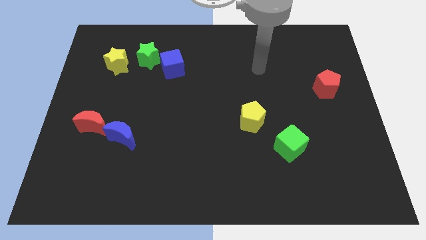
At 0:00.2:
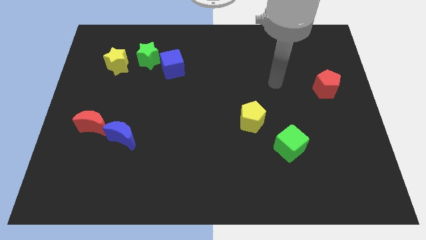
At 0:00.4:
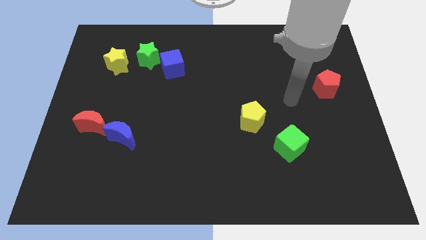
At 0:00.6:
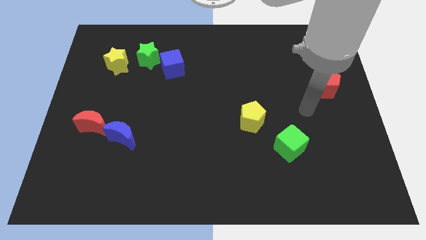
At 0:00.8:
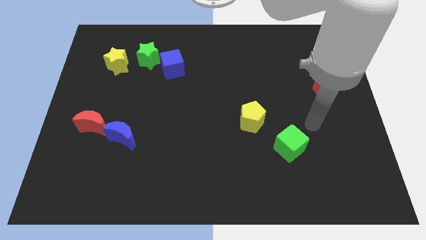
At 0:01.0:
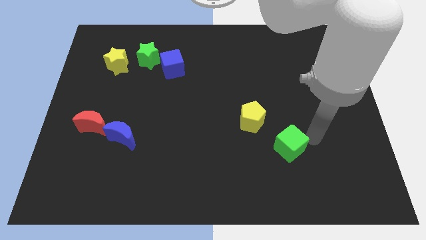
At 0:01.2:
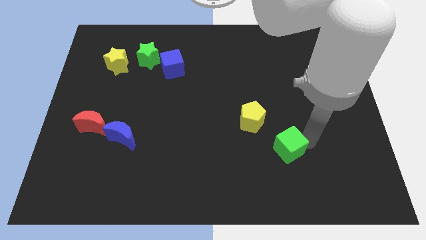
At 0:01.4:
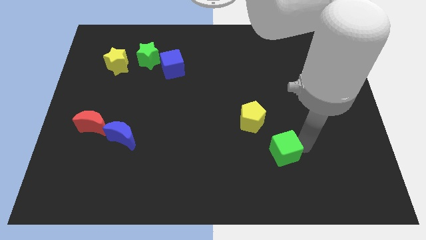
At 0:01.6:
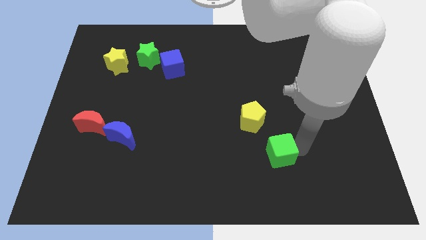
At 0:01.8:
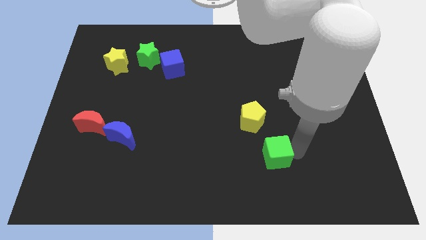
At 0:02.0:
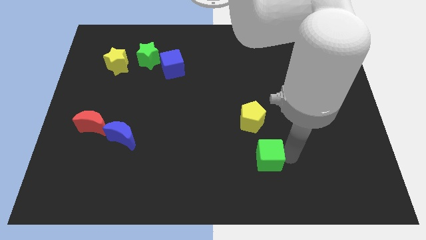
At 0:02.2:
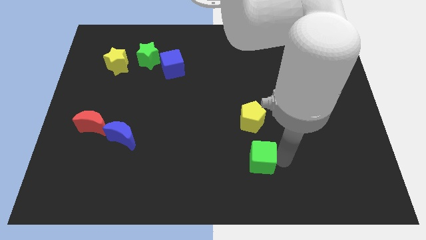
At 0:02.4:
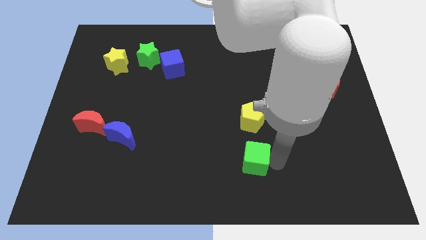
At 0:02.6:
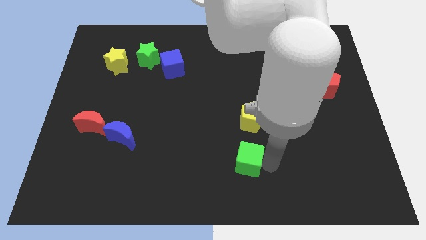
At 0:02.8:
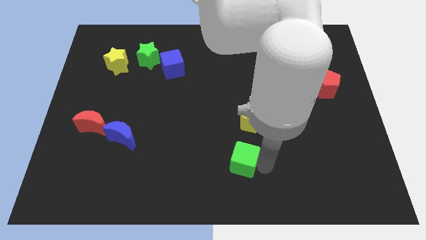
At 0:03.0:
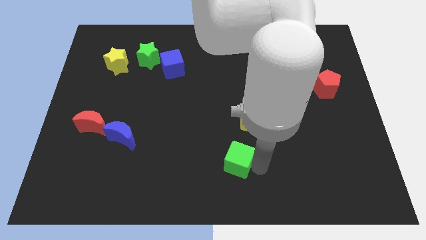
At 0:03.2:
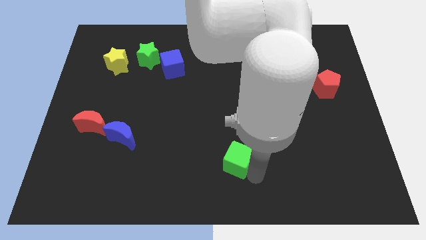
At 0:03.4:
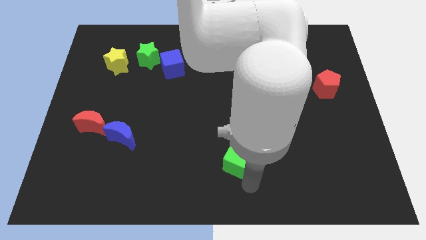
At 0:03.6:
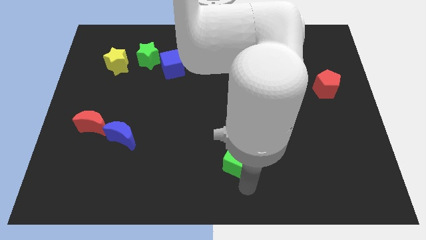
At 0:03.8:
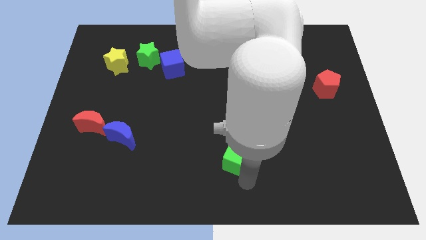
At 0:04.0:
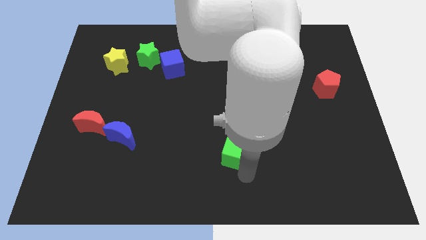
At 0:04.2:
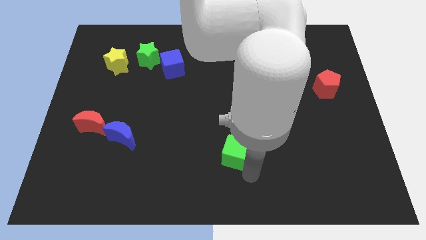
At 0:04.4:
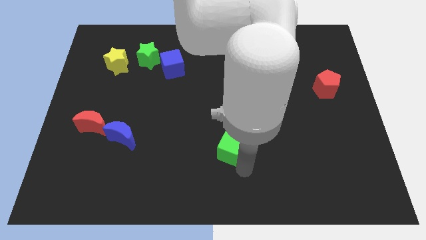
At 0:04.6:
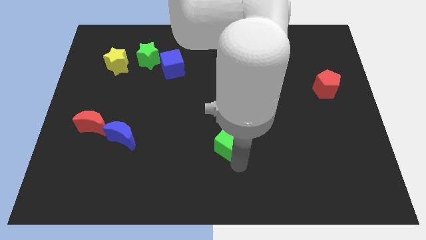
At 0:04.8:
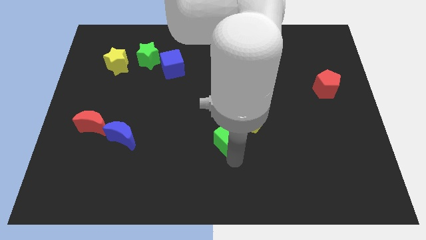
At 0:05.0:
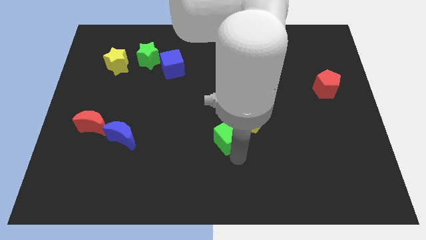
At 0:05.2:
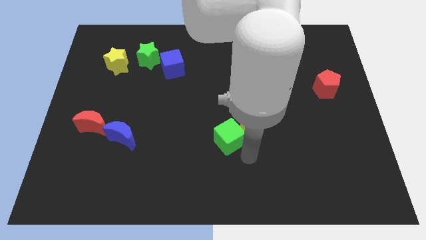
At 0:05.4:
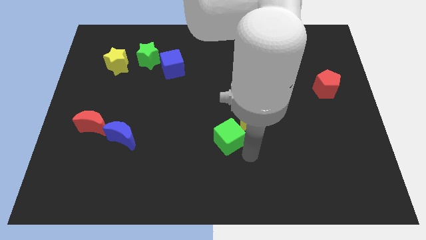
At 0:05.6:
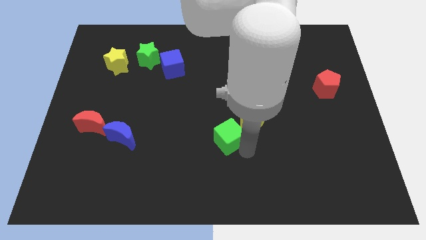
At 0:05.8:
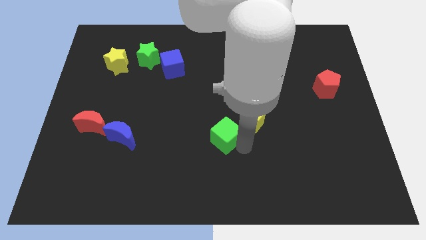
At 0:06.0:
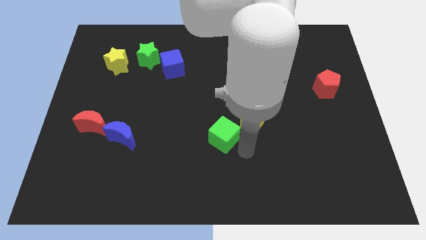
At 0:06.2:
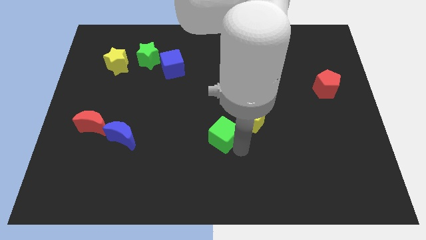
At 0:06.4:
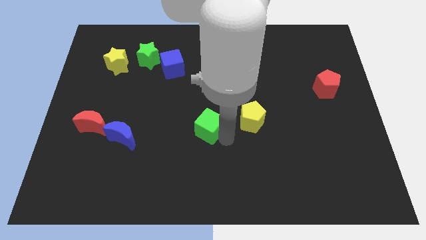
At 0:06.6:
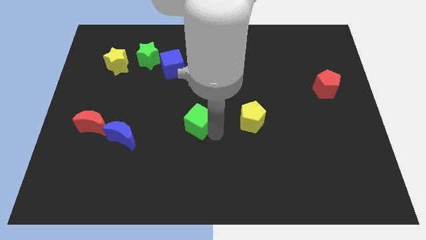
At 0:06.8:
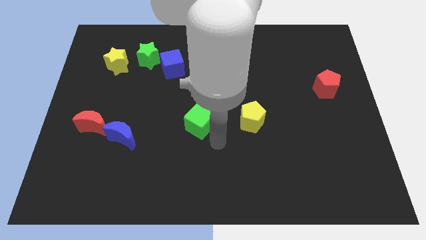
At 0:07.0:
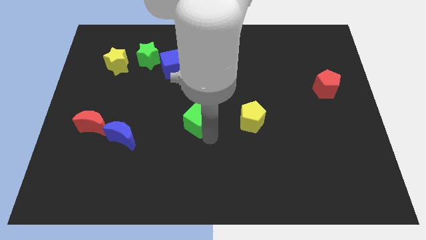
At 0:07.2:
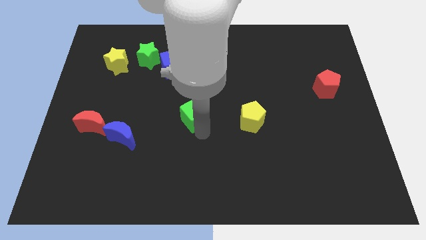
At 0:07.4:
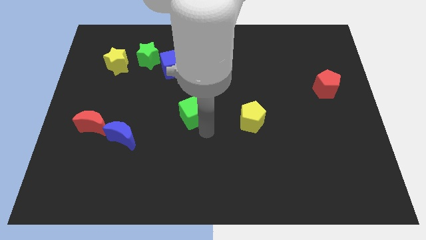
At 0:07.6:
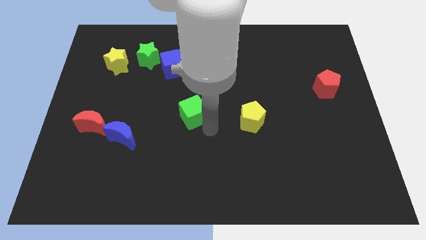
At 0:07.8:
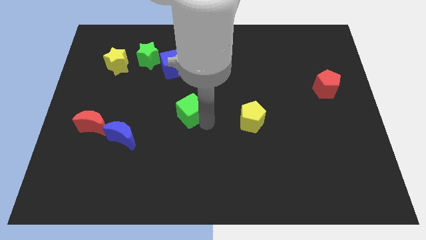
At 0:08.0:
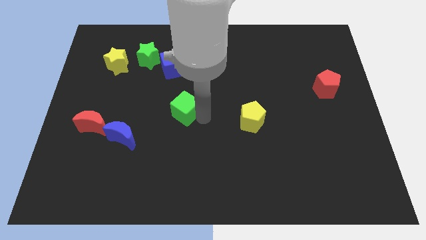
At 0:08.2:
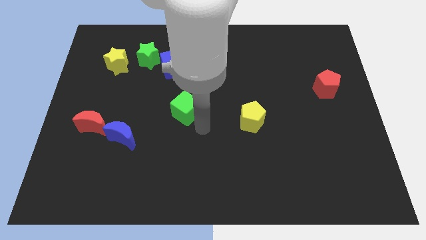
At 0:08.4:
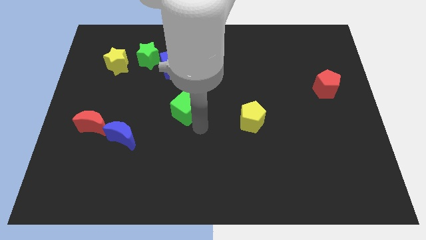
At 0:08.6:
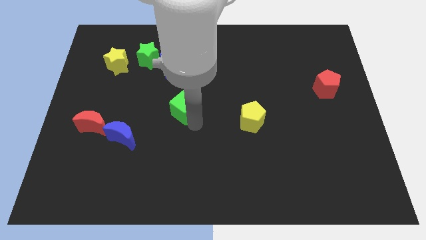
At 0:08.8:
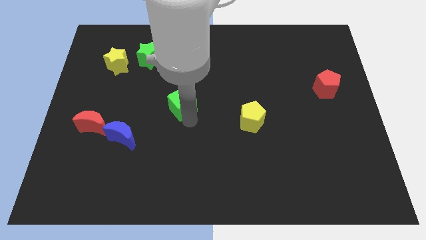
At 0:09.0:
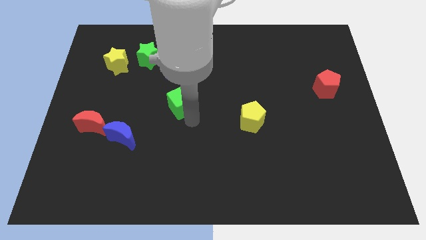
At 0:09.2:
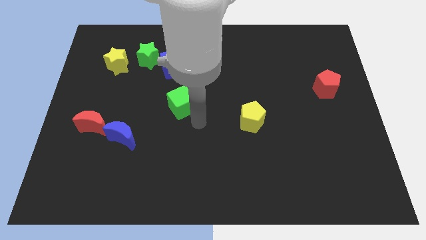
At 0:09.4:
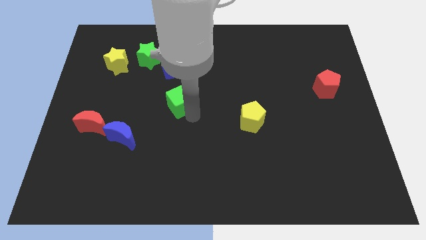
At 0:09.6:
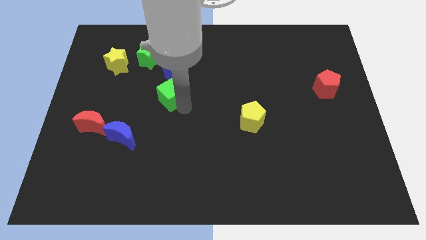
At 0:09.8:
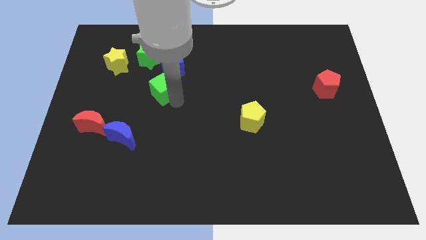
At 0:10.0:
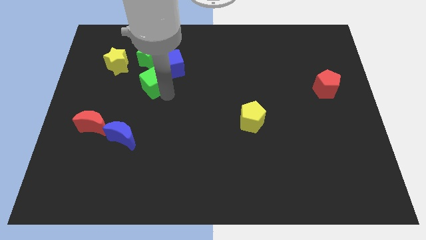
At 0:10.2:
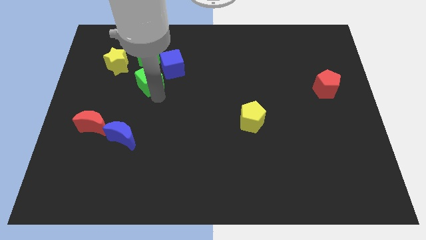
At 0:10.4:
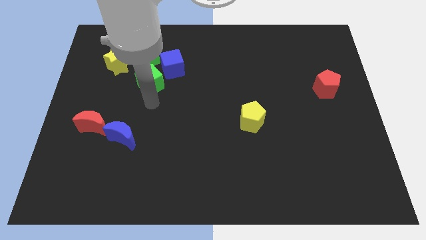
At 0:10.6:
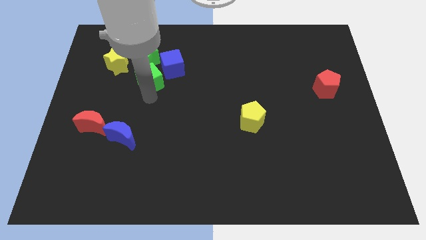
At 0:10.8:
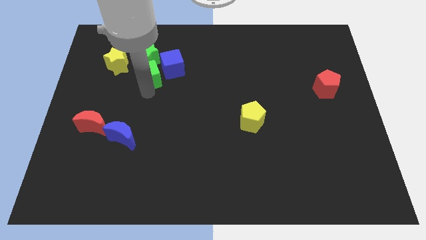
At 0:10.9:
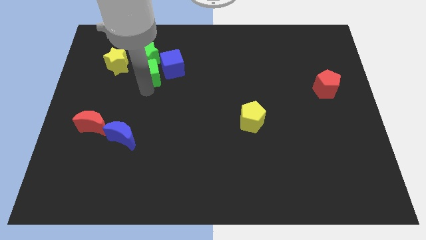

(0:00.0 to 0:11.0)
put the green cube close to the green star

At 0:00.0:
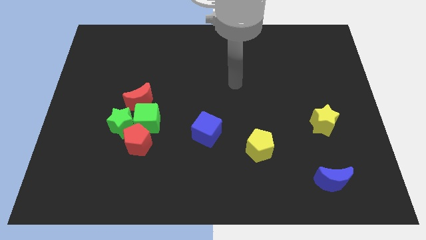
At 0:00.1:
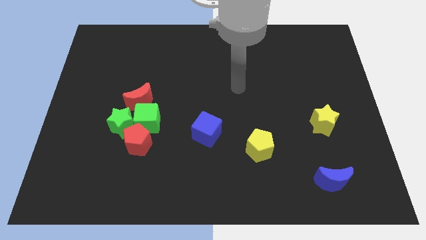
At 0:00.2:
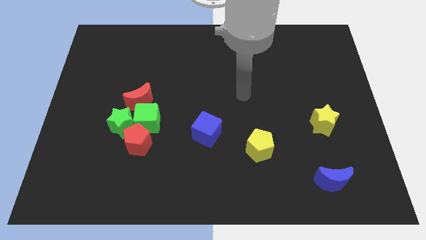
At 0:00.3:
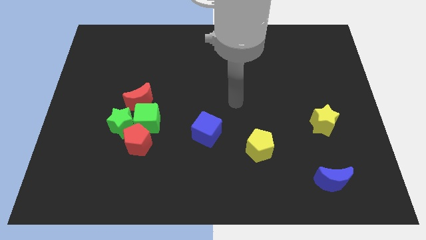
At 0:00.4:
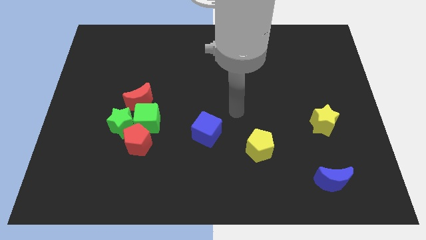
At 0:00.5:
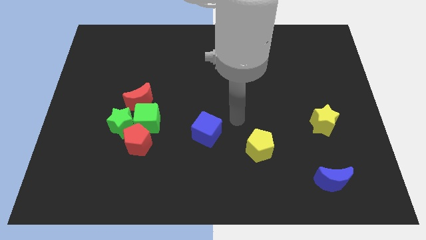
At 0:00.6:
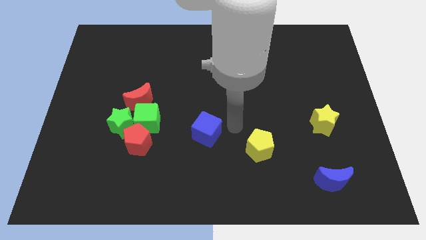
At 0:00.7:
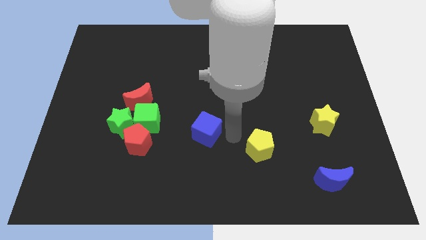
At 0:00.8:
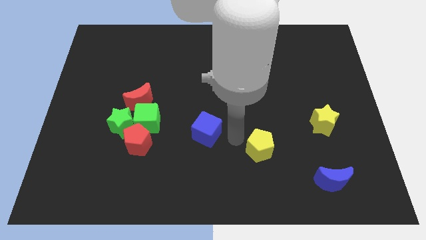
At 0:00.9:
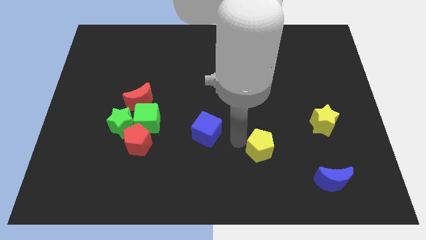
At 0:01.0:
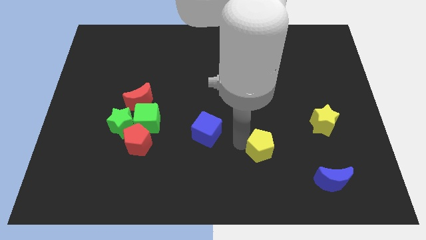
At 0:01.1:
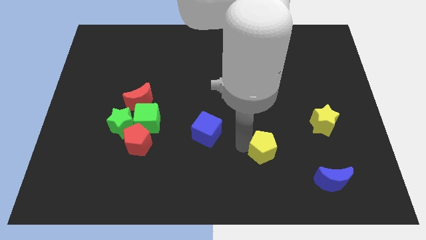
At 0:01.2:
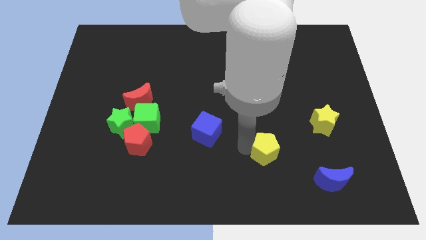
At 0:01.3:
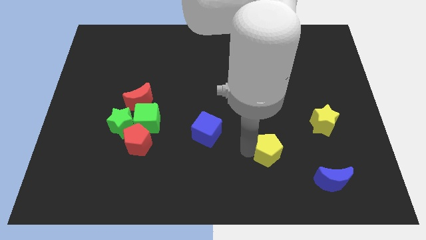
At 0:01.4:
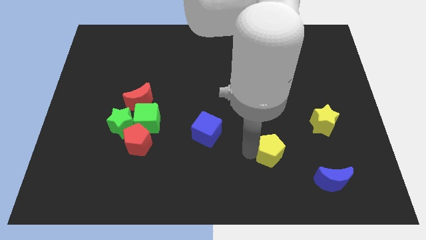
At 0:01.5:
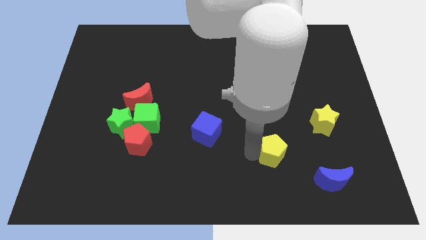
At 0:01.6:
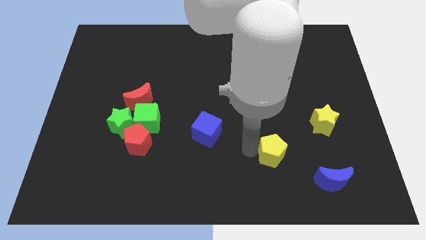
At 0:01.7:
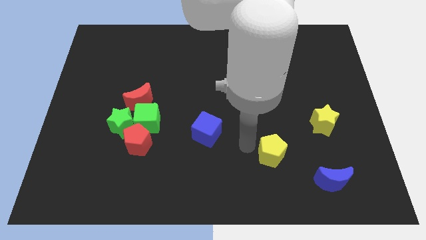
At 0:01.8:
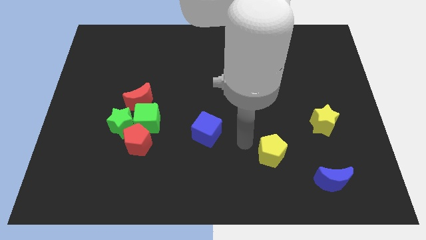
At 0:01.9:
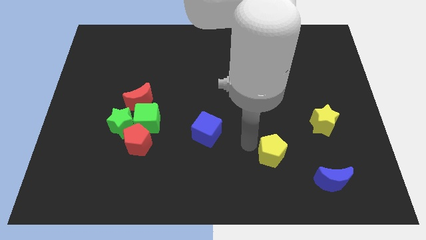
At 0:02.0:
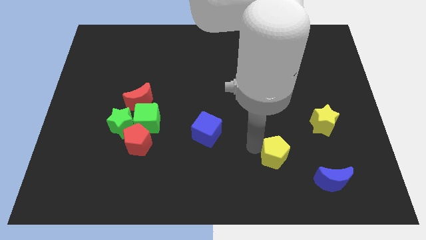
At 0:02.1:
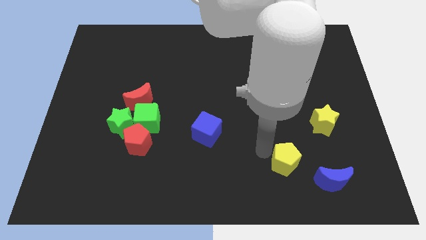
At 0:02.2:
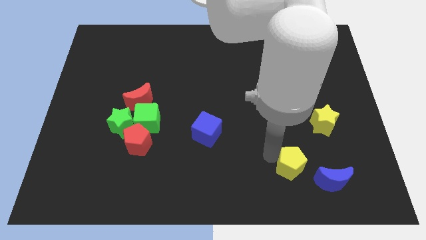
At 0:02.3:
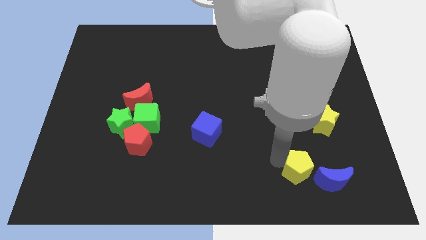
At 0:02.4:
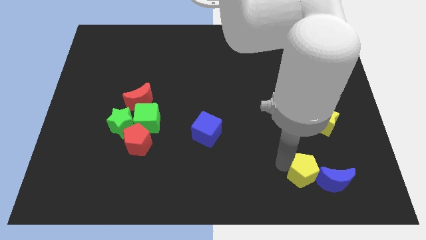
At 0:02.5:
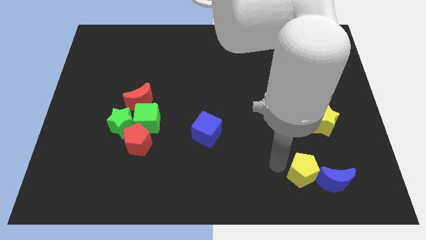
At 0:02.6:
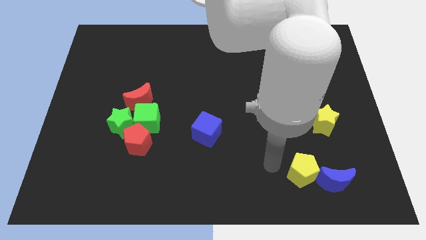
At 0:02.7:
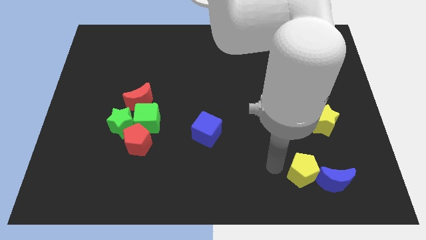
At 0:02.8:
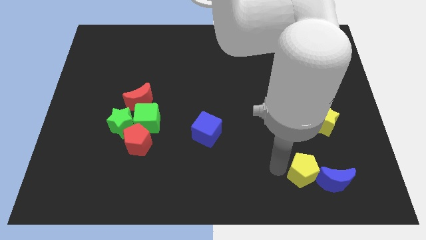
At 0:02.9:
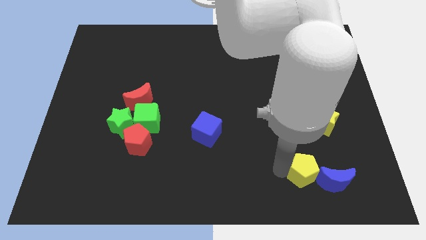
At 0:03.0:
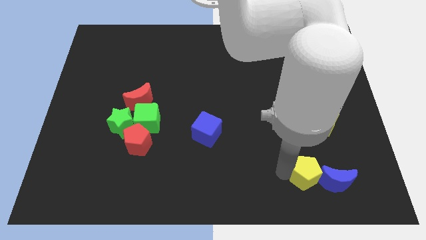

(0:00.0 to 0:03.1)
slide the yellow pentagon towards the blue moon
